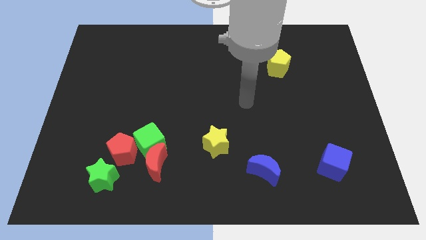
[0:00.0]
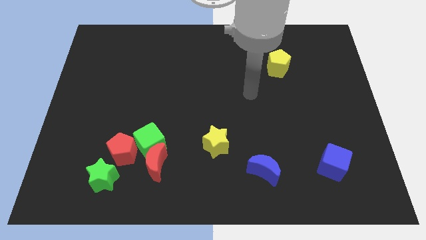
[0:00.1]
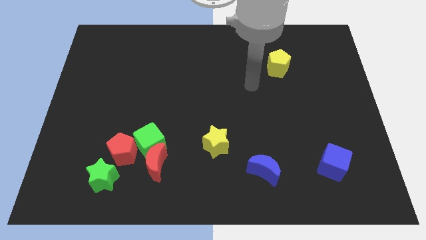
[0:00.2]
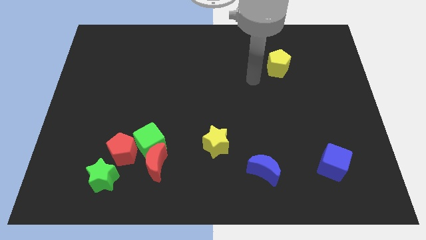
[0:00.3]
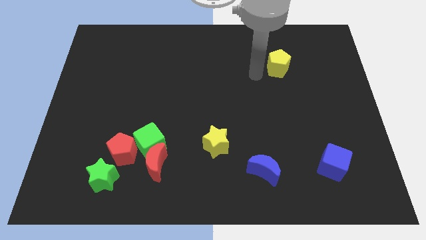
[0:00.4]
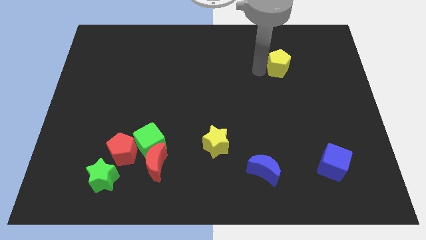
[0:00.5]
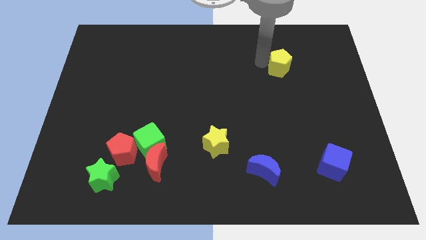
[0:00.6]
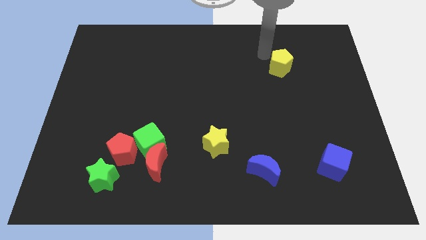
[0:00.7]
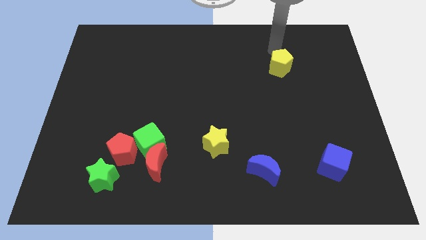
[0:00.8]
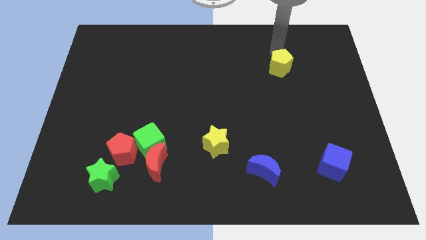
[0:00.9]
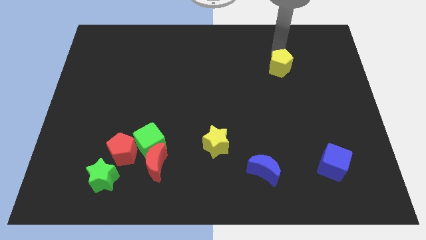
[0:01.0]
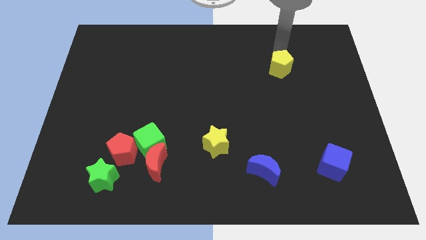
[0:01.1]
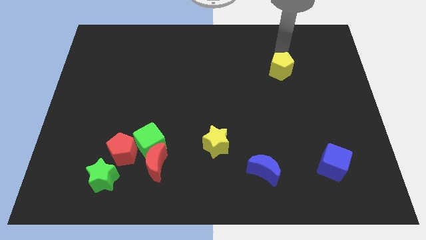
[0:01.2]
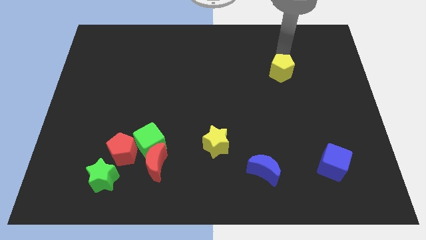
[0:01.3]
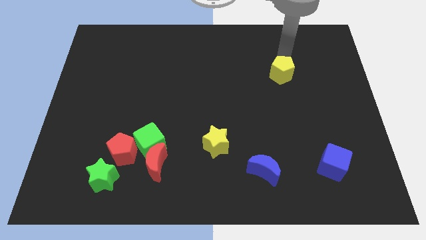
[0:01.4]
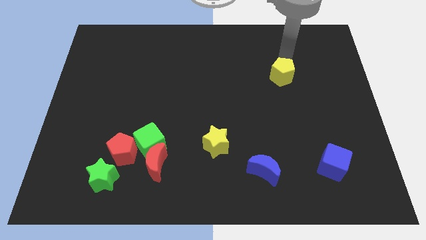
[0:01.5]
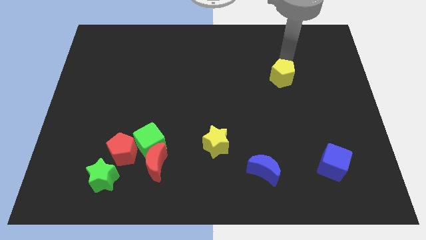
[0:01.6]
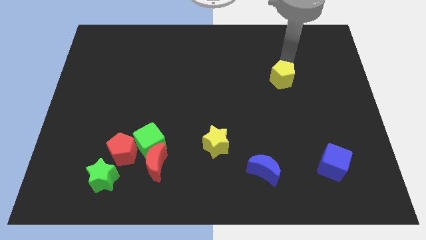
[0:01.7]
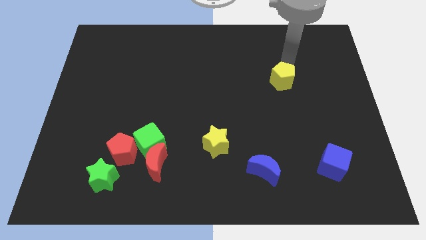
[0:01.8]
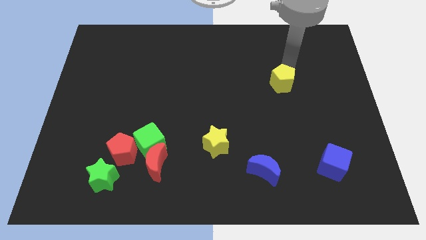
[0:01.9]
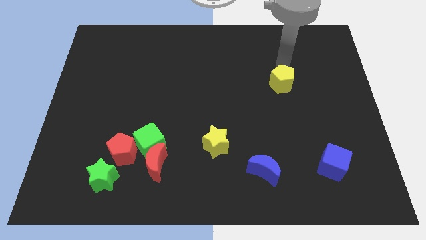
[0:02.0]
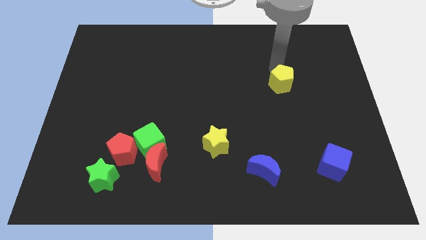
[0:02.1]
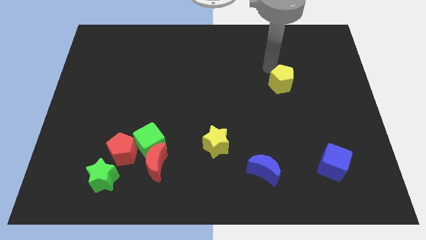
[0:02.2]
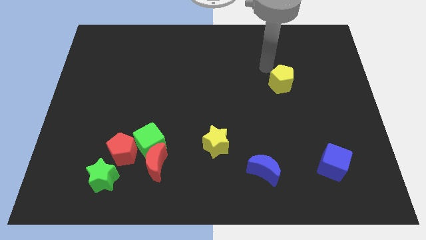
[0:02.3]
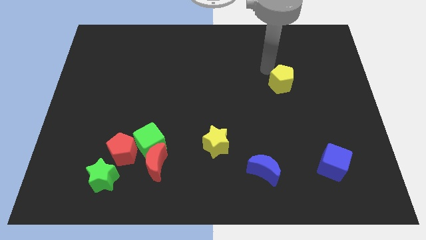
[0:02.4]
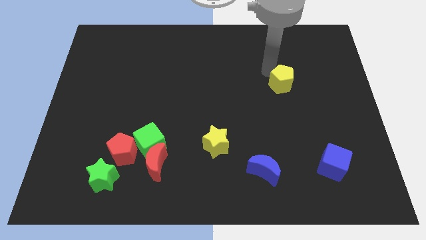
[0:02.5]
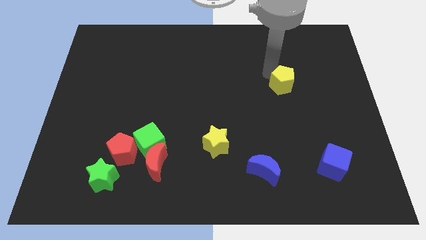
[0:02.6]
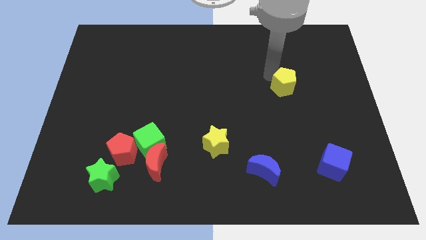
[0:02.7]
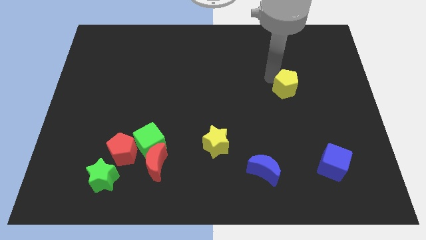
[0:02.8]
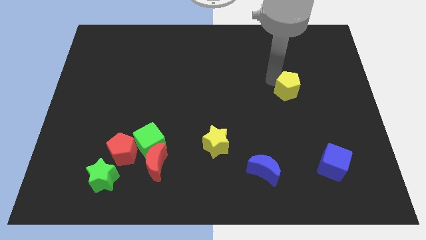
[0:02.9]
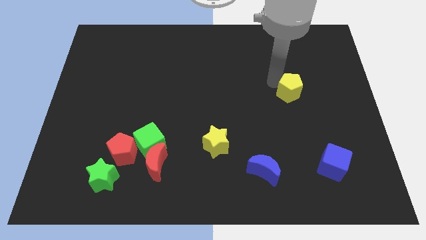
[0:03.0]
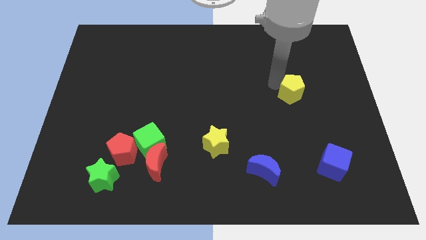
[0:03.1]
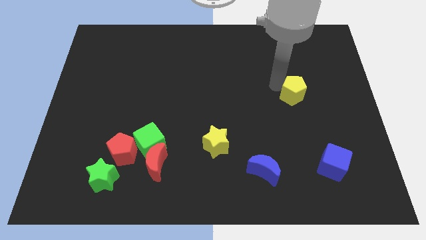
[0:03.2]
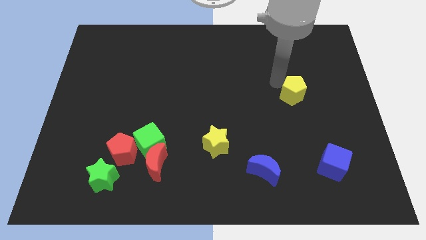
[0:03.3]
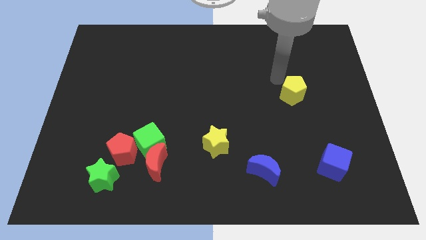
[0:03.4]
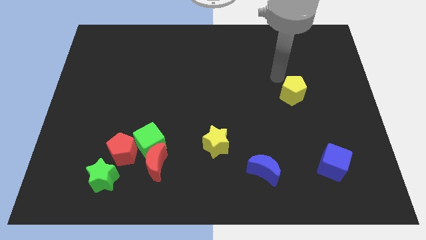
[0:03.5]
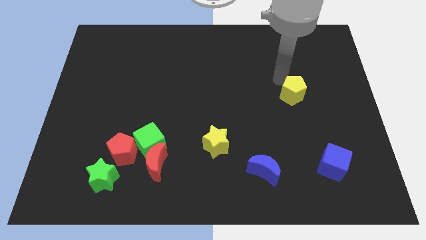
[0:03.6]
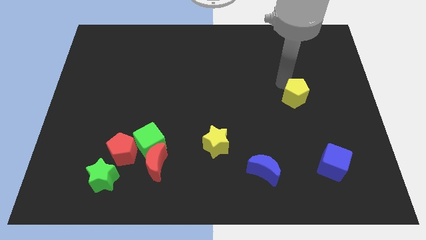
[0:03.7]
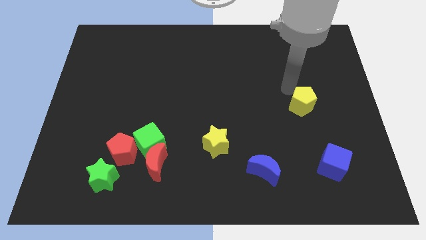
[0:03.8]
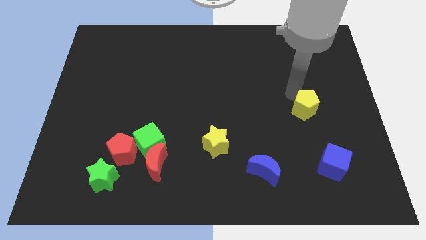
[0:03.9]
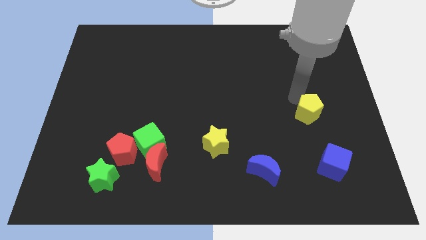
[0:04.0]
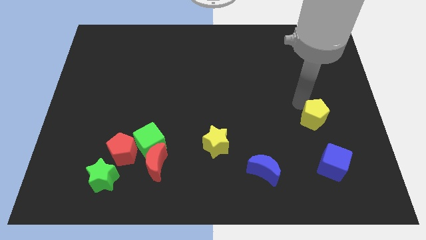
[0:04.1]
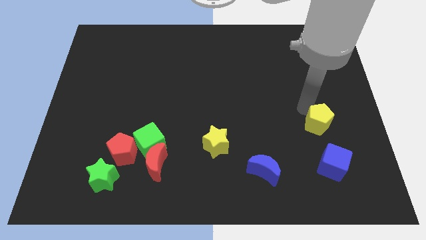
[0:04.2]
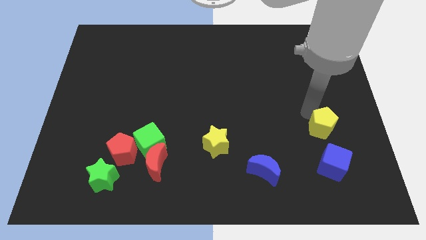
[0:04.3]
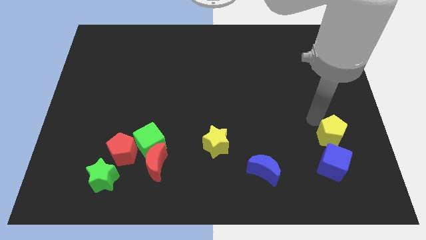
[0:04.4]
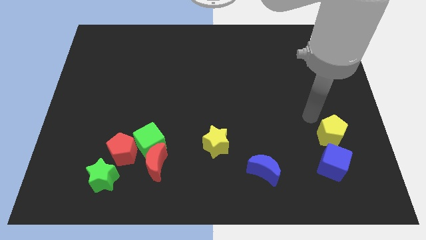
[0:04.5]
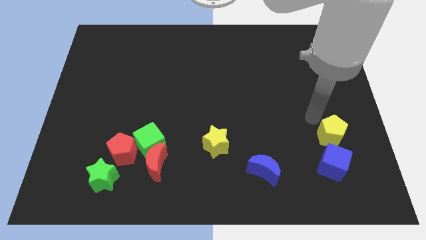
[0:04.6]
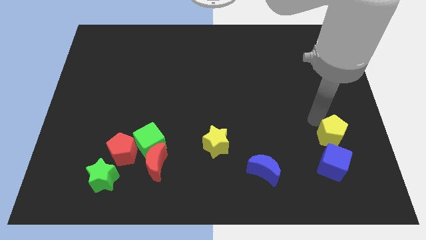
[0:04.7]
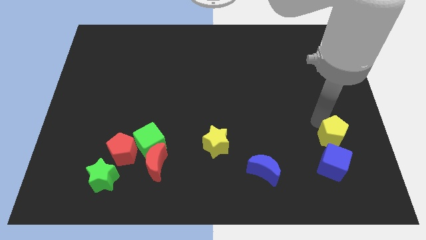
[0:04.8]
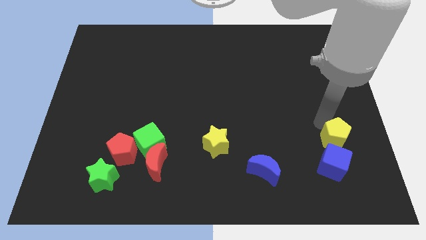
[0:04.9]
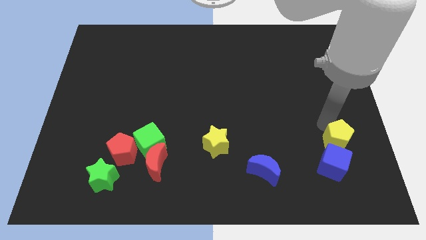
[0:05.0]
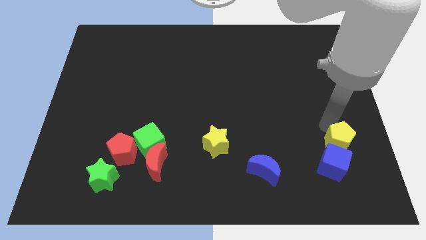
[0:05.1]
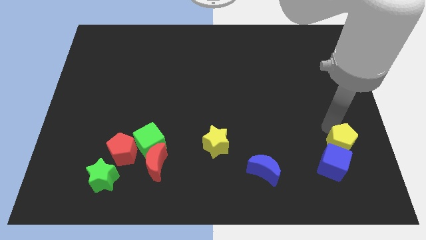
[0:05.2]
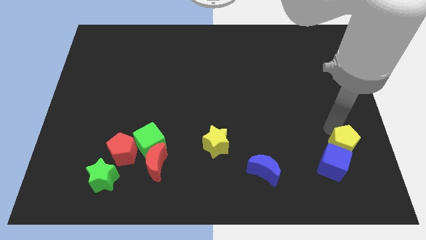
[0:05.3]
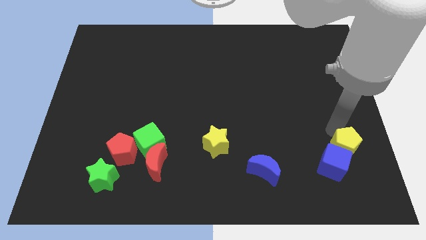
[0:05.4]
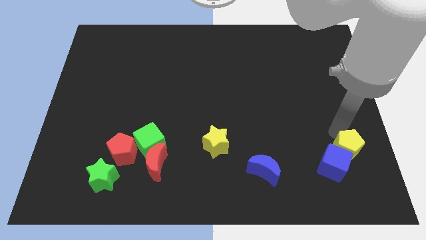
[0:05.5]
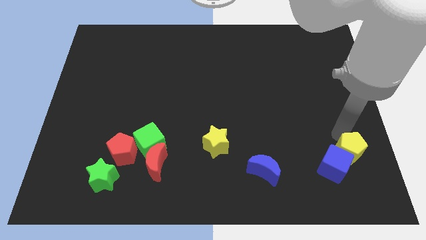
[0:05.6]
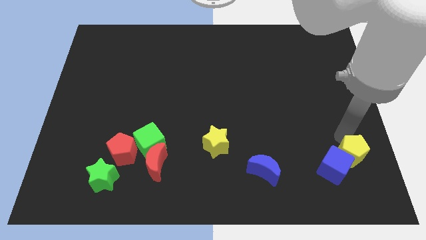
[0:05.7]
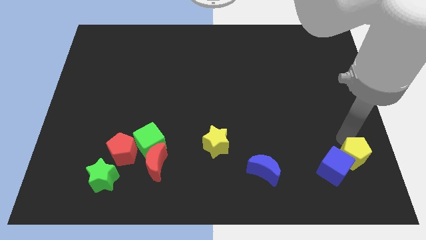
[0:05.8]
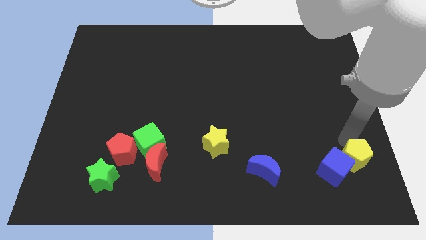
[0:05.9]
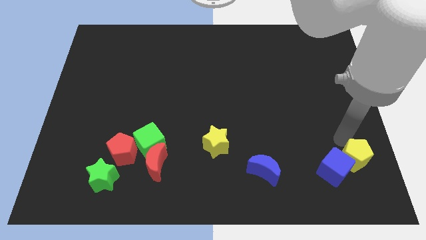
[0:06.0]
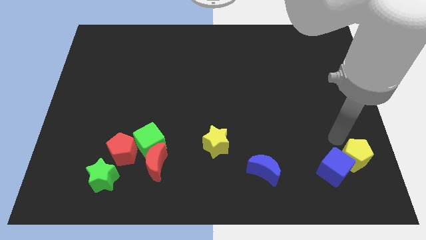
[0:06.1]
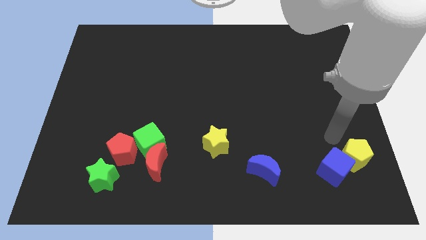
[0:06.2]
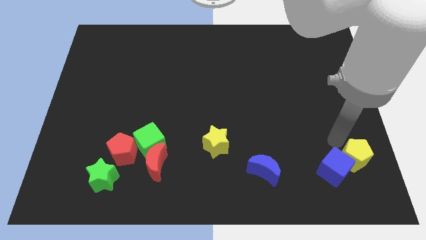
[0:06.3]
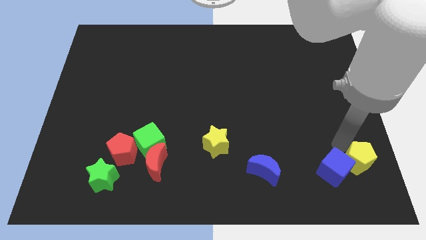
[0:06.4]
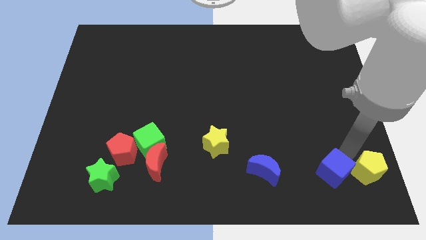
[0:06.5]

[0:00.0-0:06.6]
push the yellow pentagon to the lower right corner

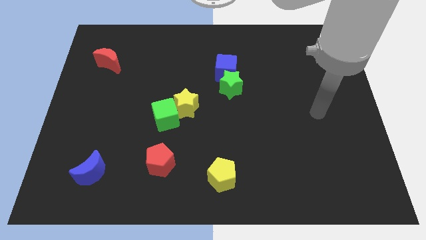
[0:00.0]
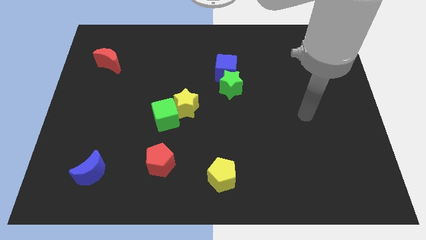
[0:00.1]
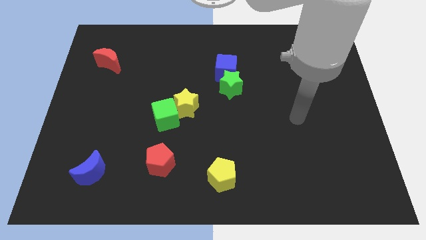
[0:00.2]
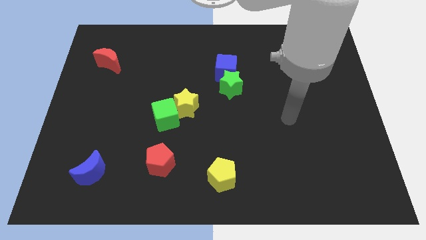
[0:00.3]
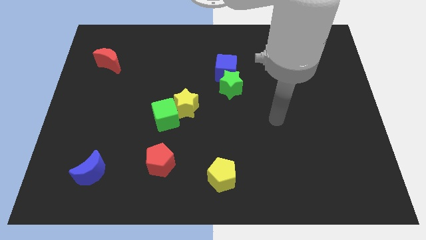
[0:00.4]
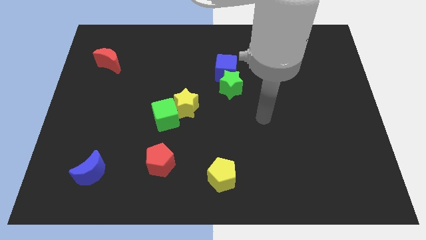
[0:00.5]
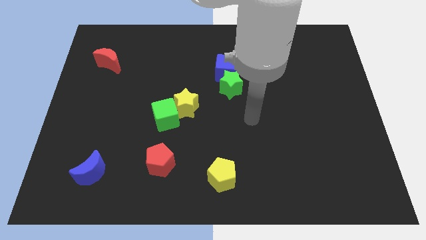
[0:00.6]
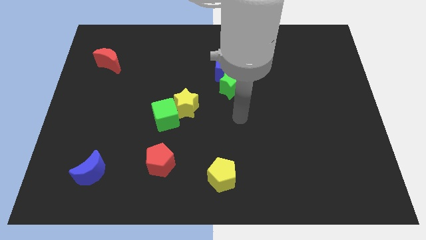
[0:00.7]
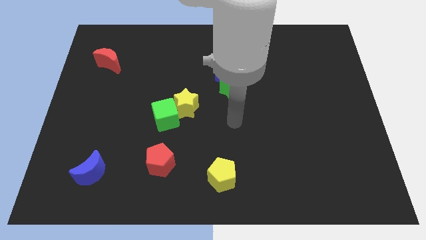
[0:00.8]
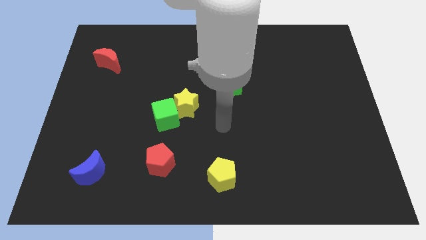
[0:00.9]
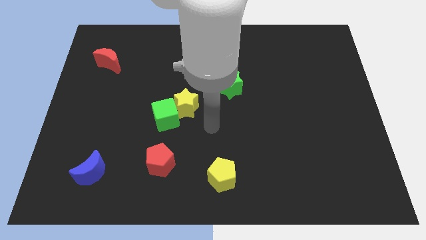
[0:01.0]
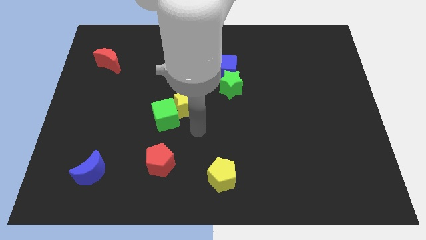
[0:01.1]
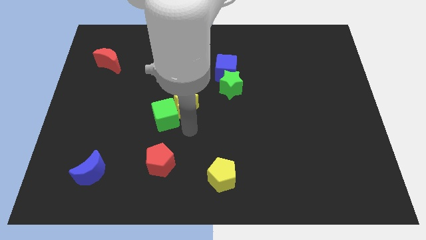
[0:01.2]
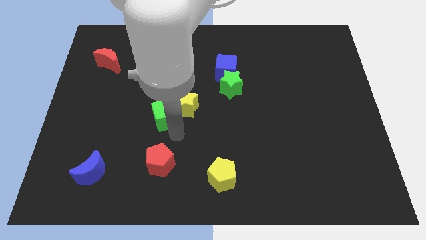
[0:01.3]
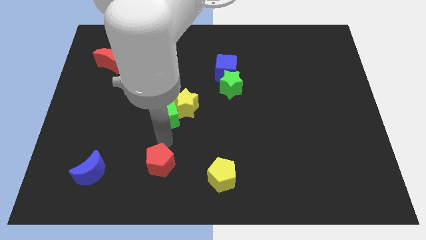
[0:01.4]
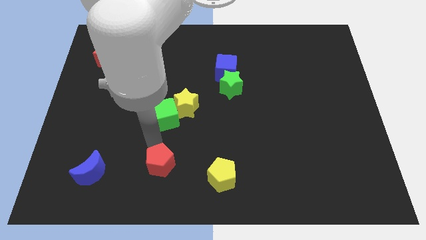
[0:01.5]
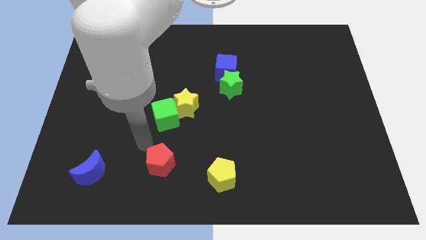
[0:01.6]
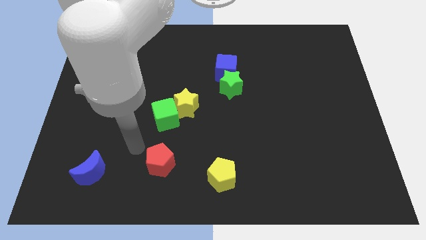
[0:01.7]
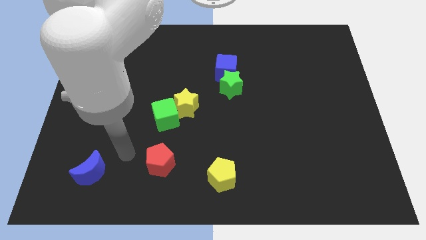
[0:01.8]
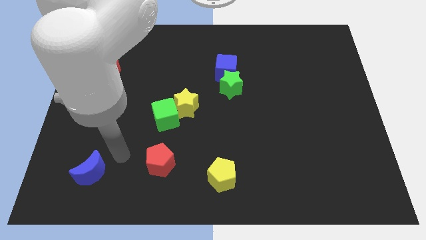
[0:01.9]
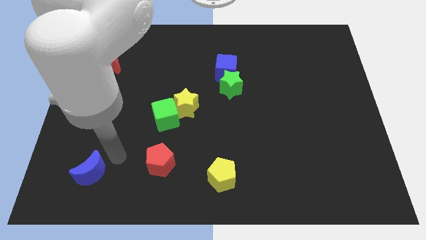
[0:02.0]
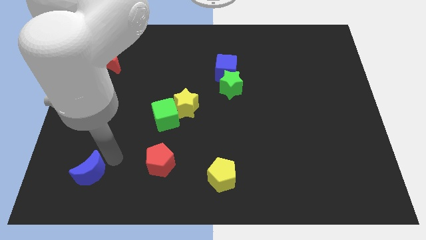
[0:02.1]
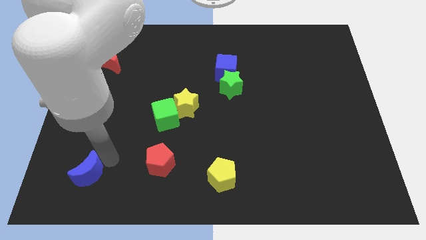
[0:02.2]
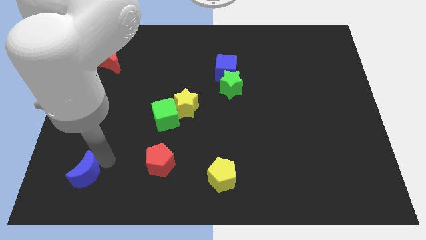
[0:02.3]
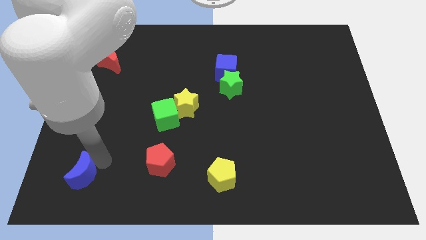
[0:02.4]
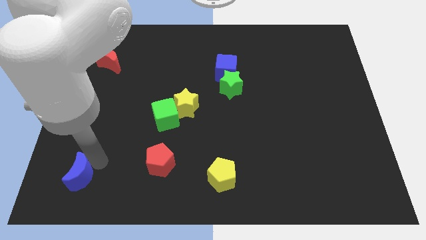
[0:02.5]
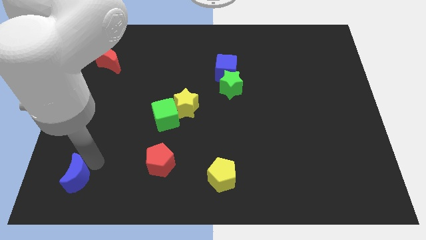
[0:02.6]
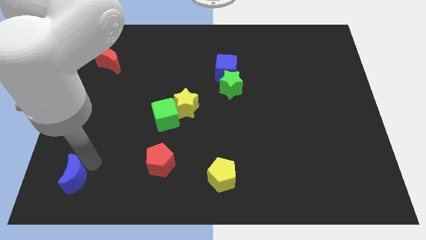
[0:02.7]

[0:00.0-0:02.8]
put the blue moon to the bottom left
